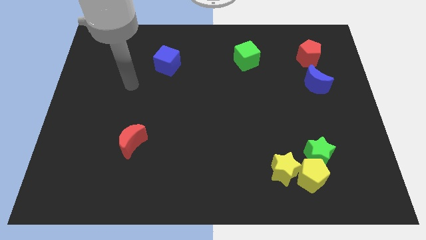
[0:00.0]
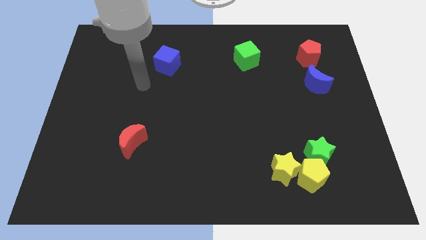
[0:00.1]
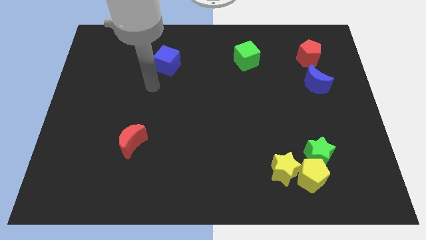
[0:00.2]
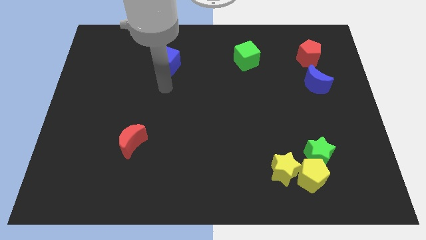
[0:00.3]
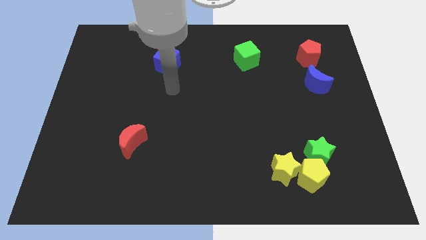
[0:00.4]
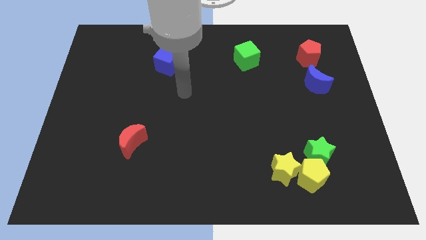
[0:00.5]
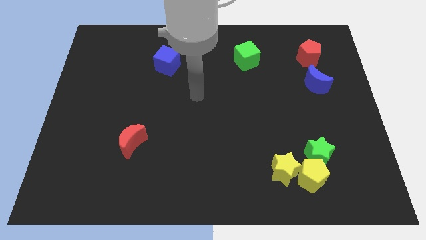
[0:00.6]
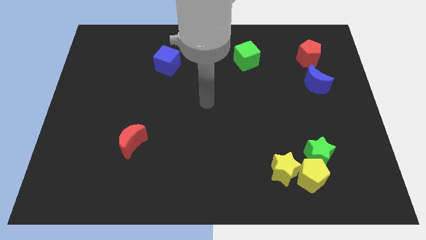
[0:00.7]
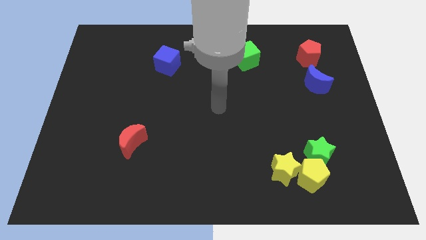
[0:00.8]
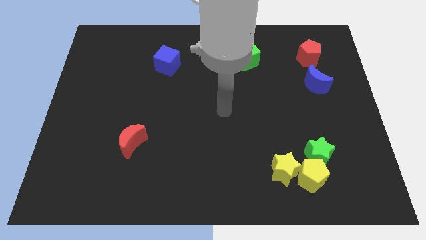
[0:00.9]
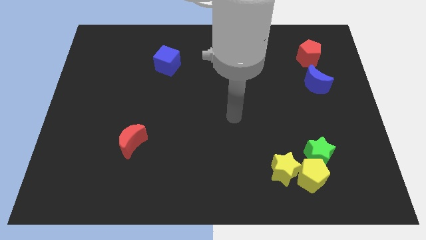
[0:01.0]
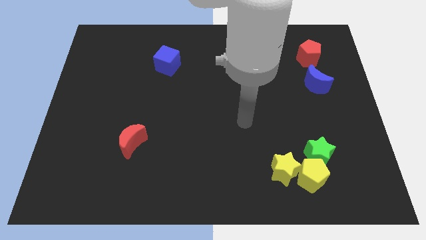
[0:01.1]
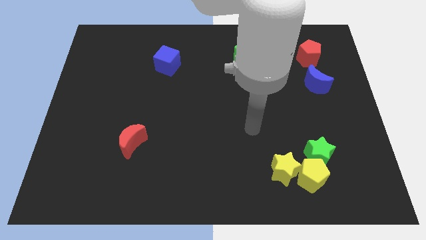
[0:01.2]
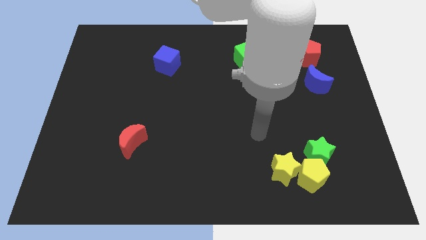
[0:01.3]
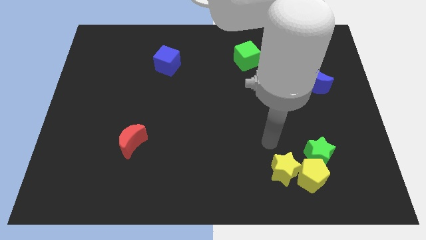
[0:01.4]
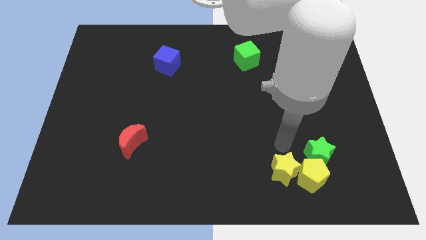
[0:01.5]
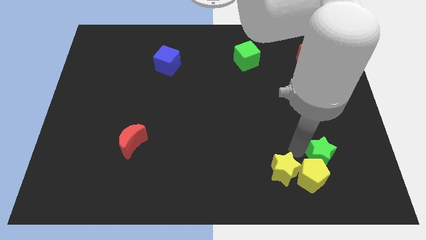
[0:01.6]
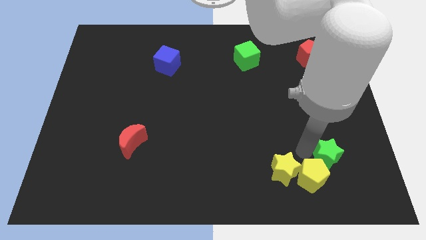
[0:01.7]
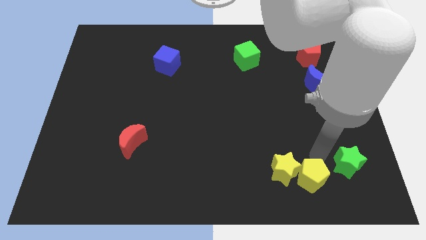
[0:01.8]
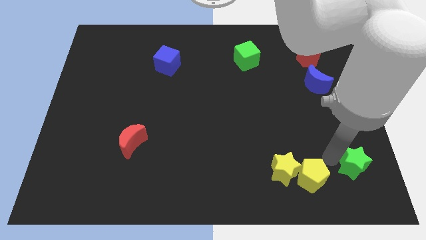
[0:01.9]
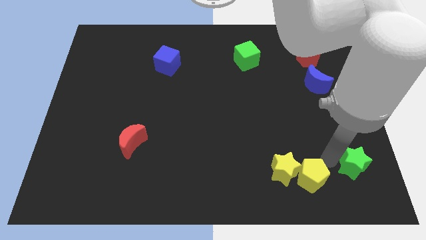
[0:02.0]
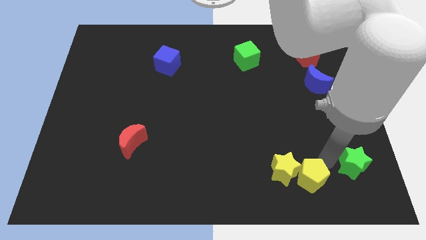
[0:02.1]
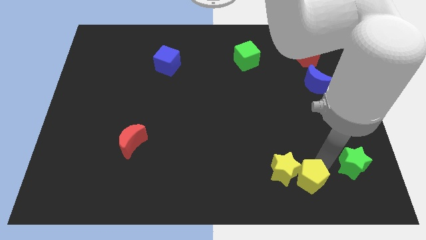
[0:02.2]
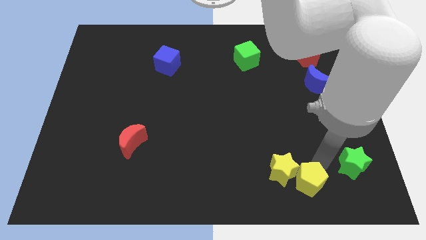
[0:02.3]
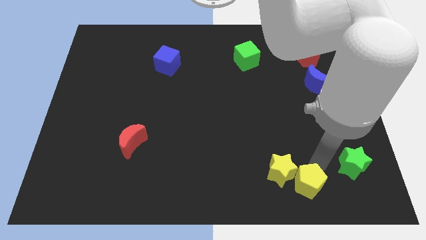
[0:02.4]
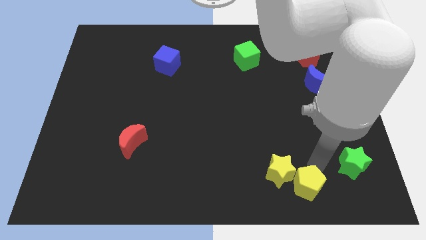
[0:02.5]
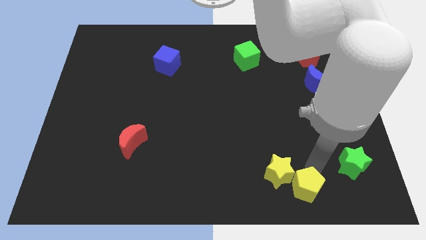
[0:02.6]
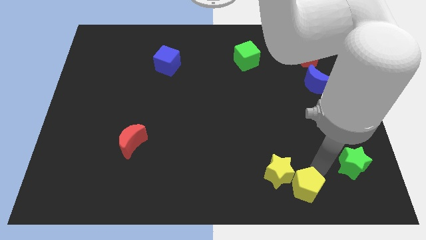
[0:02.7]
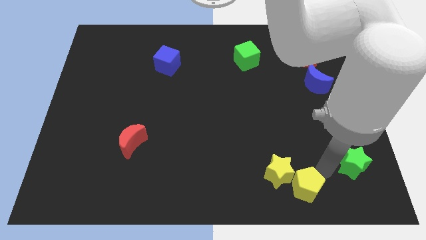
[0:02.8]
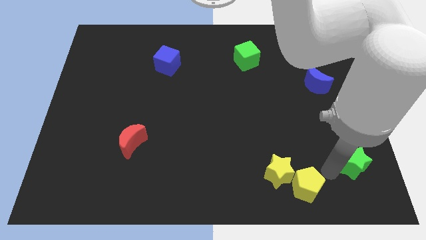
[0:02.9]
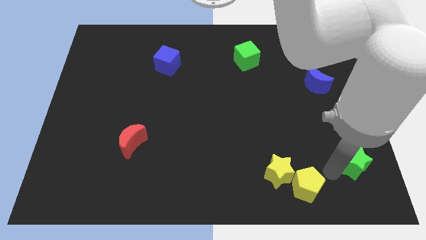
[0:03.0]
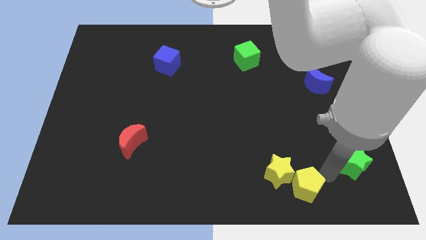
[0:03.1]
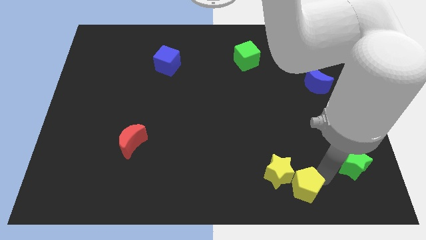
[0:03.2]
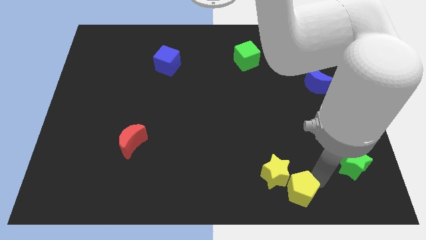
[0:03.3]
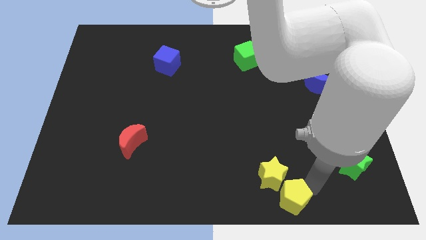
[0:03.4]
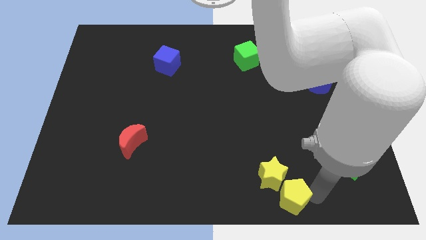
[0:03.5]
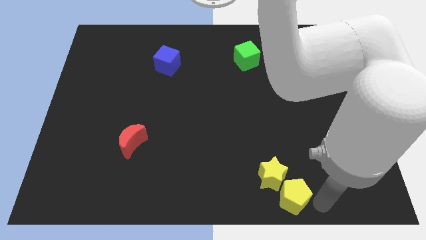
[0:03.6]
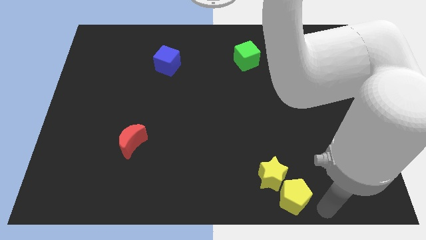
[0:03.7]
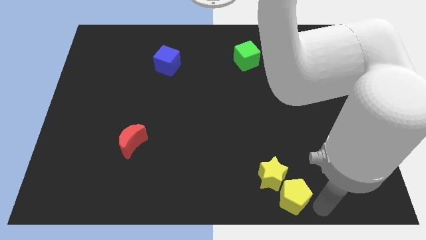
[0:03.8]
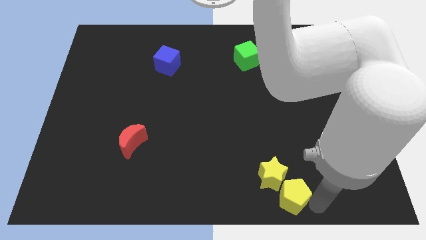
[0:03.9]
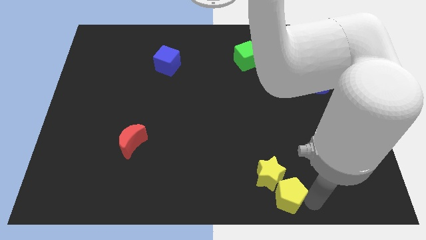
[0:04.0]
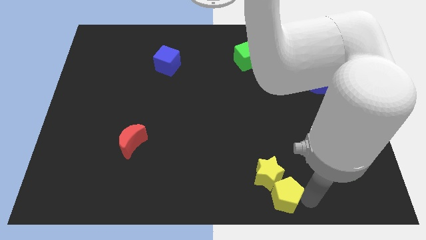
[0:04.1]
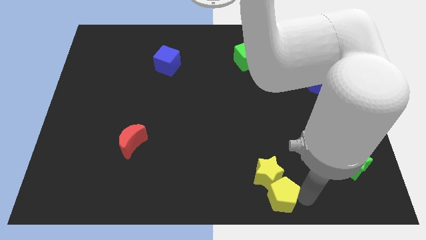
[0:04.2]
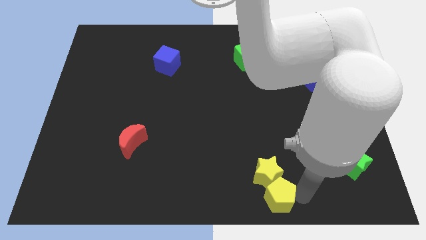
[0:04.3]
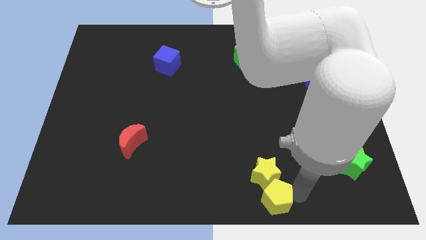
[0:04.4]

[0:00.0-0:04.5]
slightly push the yellow pentagon left

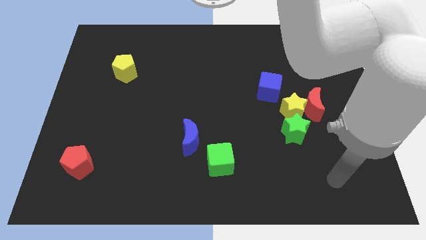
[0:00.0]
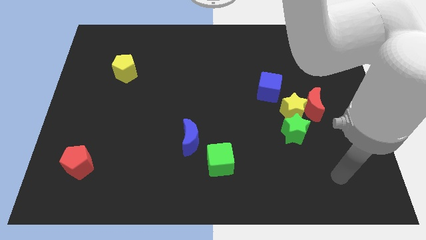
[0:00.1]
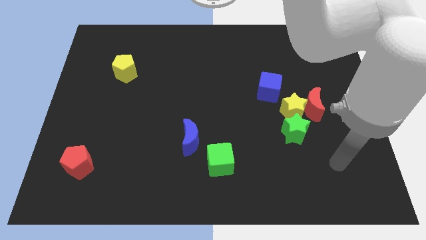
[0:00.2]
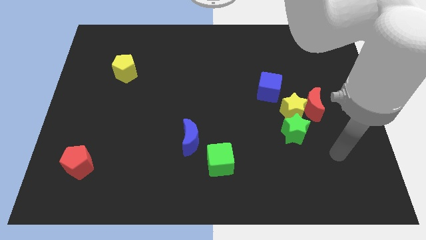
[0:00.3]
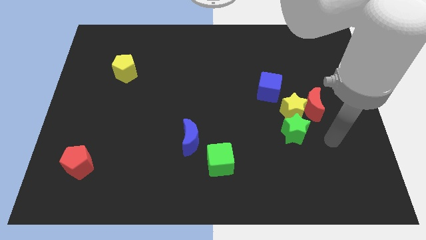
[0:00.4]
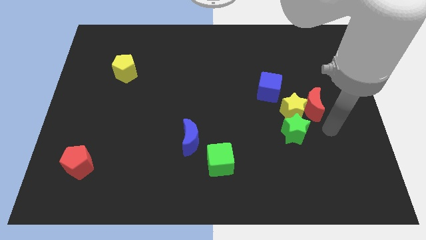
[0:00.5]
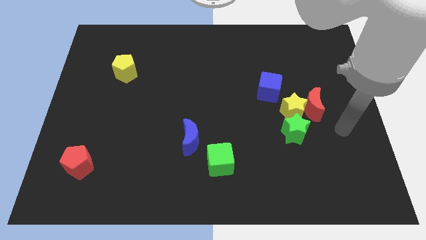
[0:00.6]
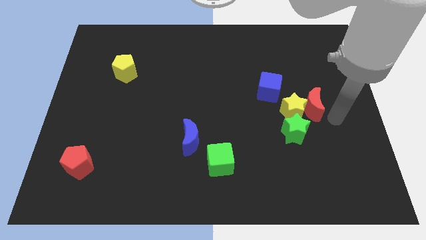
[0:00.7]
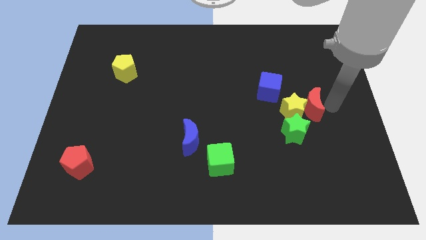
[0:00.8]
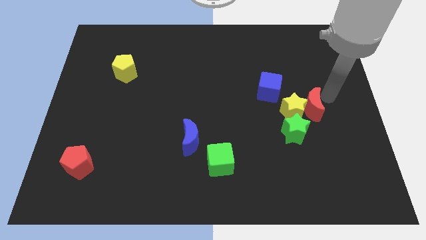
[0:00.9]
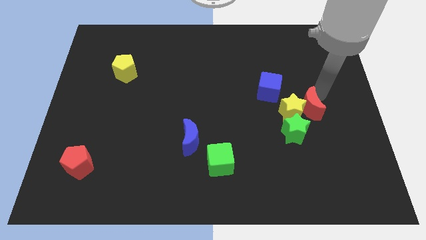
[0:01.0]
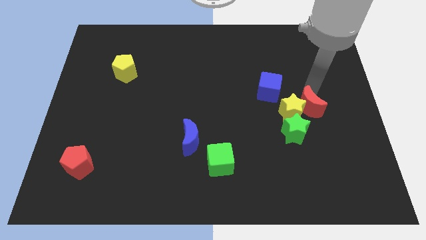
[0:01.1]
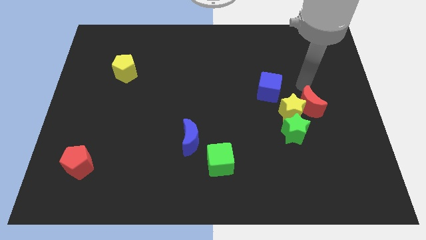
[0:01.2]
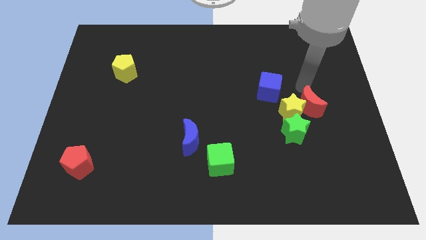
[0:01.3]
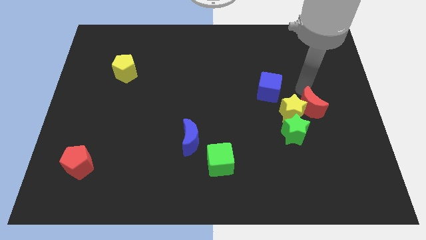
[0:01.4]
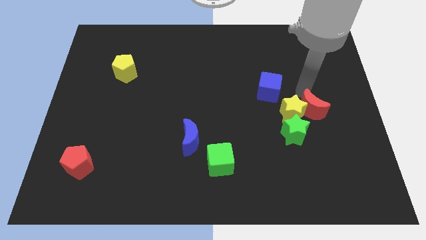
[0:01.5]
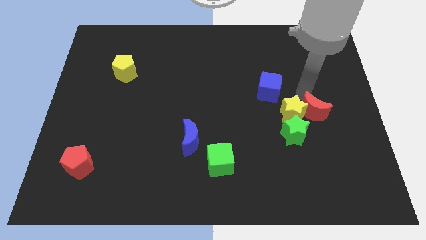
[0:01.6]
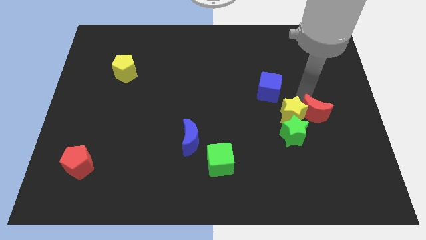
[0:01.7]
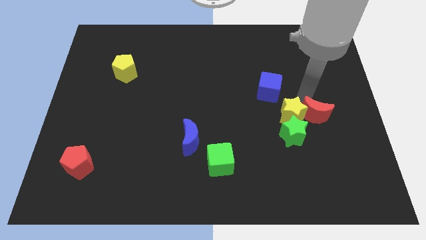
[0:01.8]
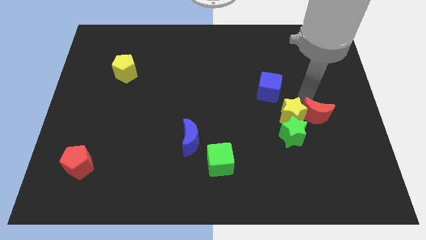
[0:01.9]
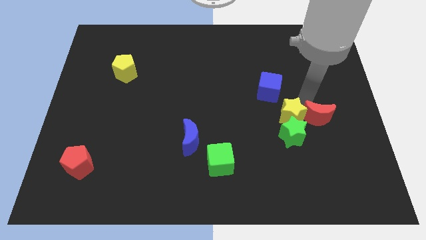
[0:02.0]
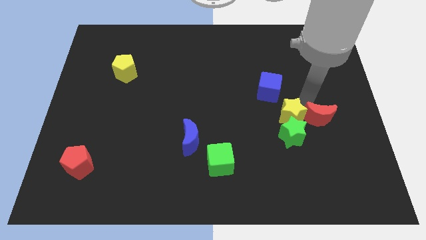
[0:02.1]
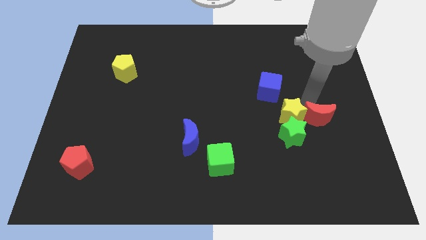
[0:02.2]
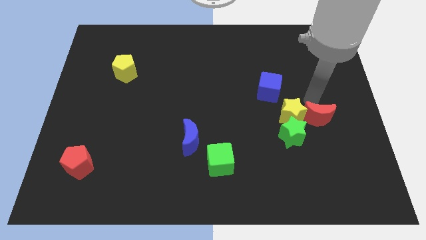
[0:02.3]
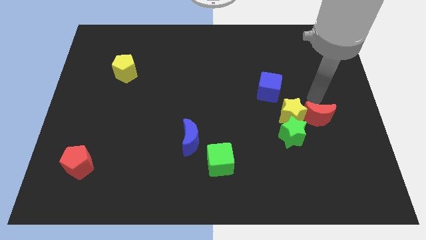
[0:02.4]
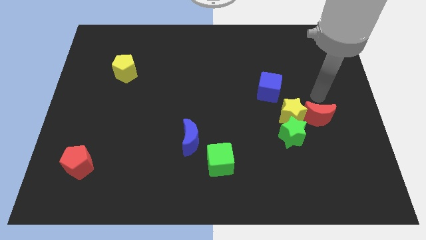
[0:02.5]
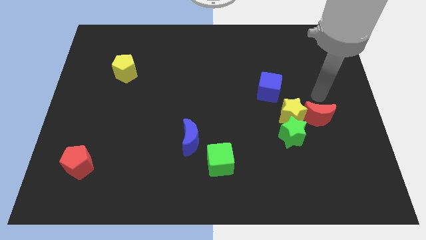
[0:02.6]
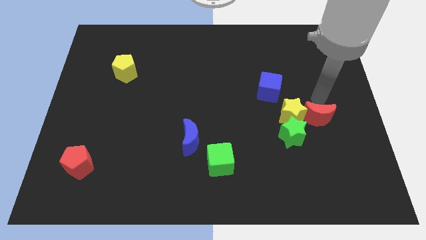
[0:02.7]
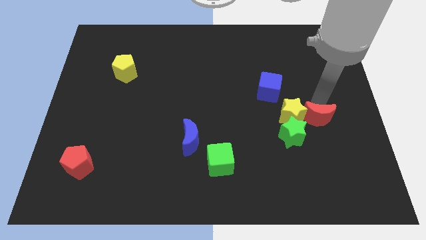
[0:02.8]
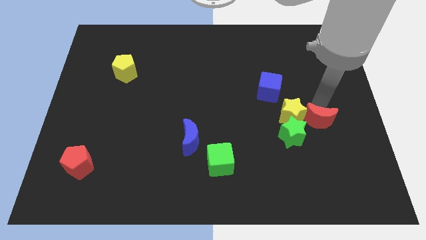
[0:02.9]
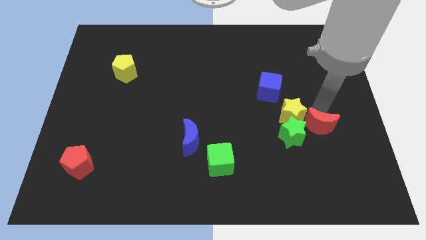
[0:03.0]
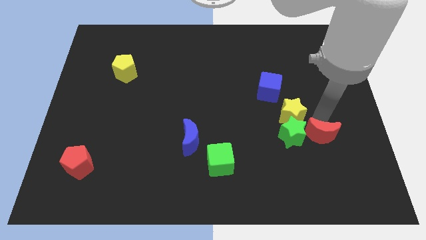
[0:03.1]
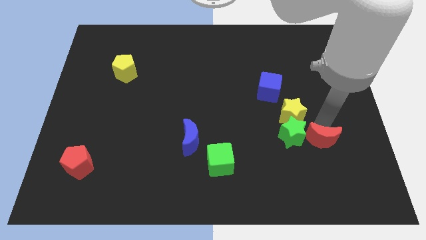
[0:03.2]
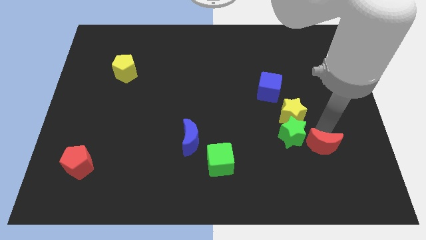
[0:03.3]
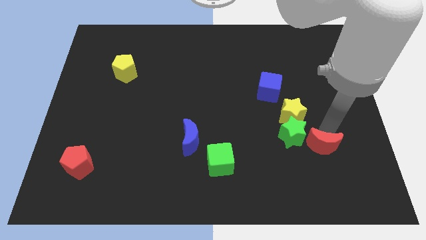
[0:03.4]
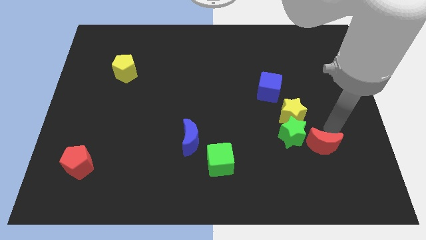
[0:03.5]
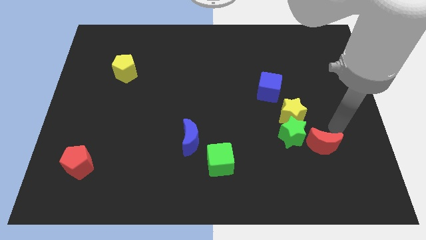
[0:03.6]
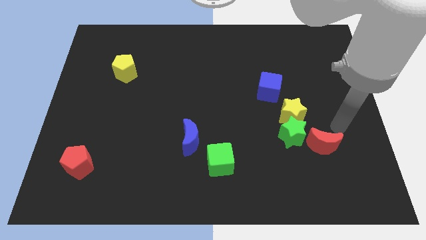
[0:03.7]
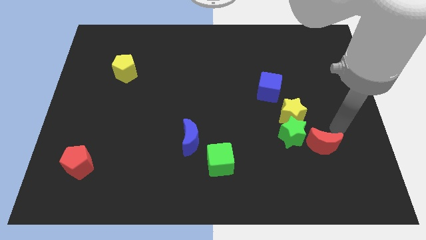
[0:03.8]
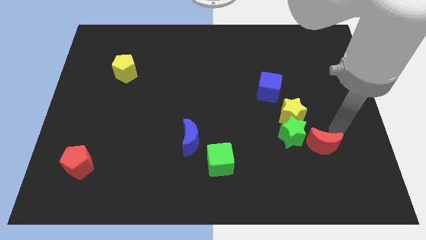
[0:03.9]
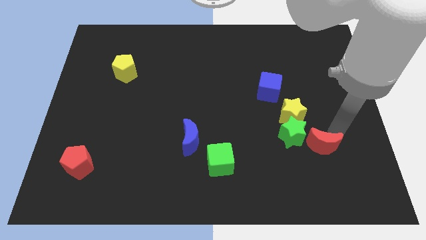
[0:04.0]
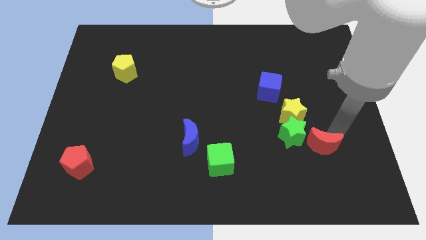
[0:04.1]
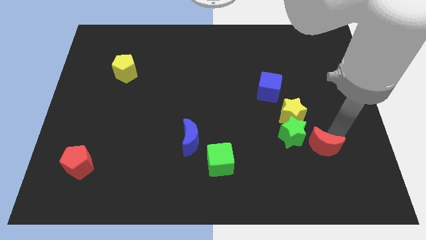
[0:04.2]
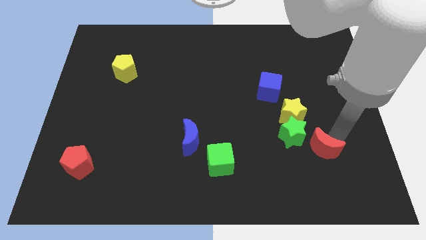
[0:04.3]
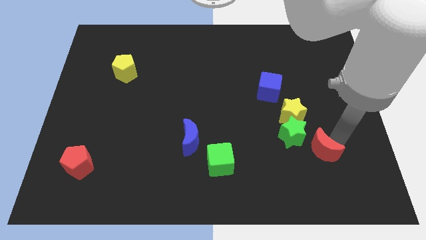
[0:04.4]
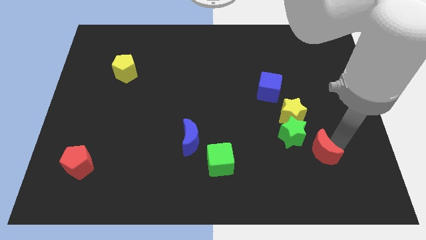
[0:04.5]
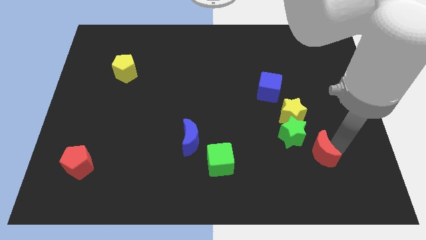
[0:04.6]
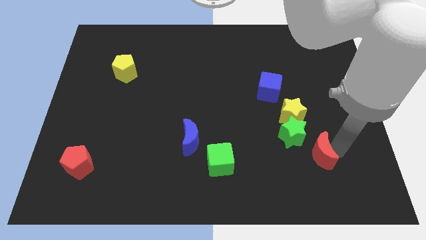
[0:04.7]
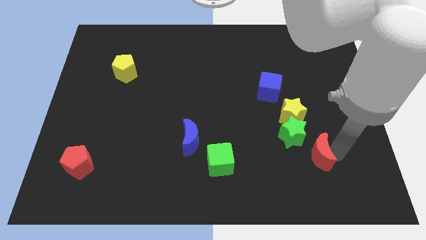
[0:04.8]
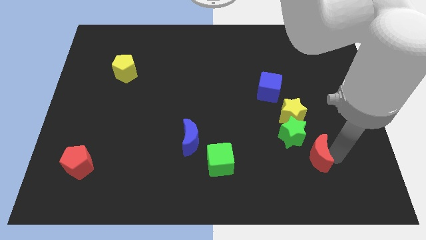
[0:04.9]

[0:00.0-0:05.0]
push the red moon somewhat down and to the left diagonally
